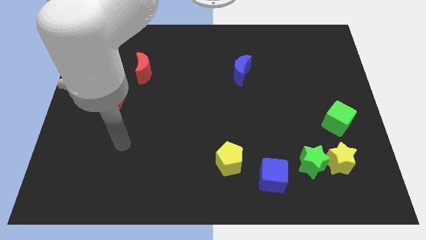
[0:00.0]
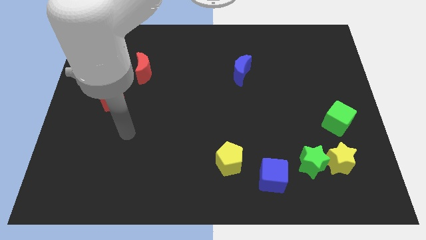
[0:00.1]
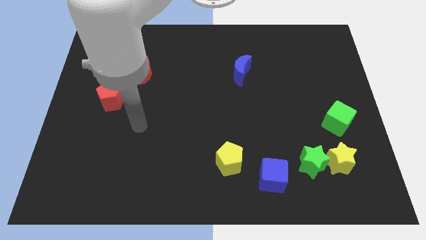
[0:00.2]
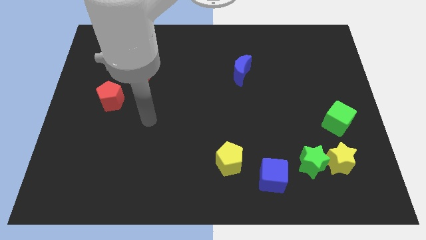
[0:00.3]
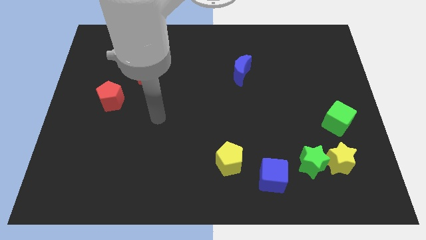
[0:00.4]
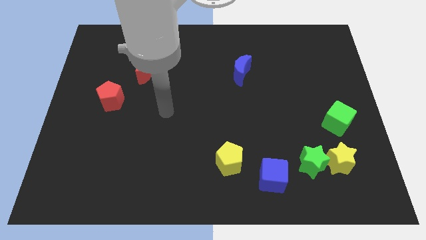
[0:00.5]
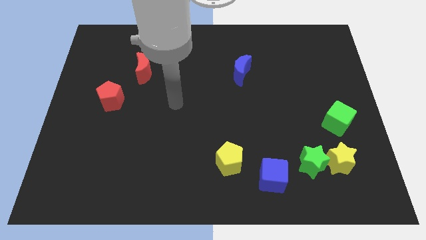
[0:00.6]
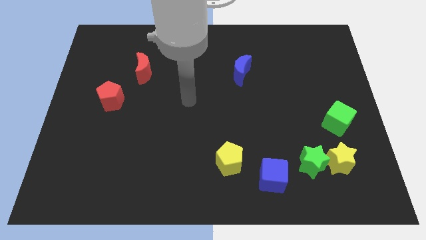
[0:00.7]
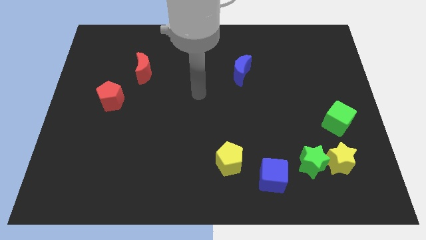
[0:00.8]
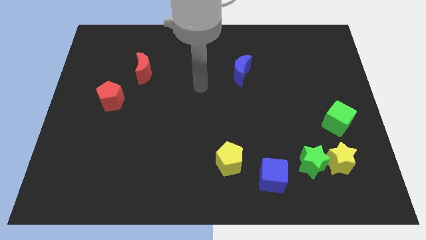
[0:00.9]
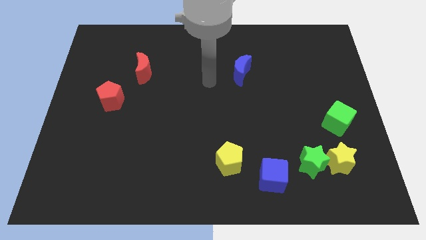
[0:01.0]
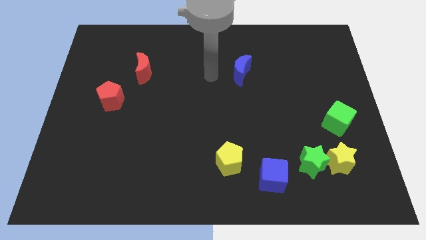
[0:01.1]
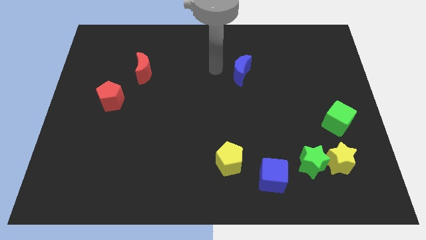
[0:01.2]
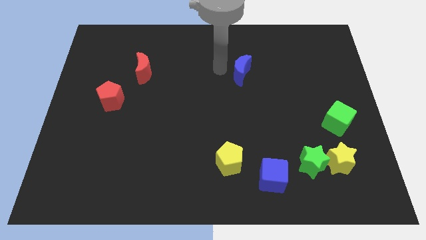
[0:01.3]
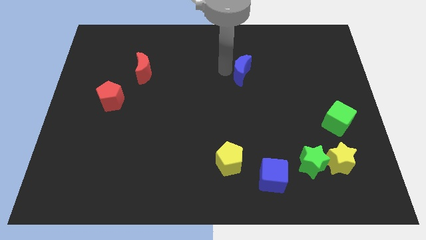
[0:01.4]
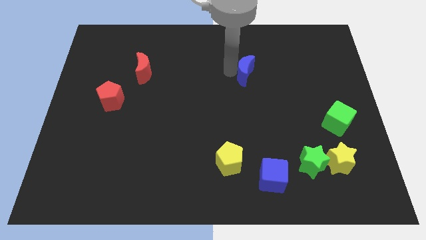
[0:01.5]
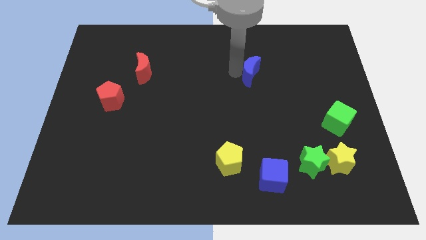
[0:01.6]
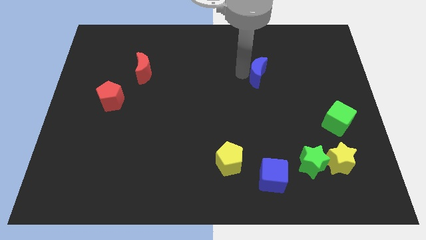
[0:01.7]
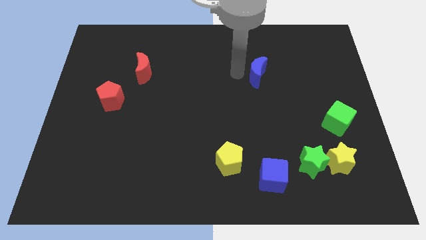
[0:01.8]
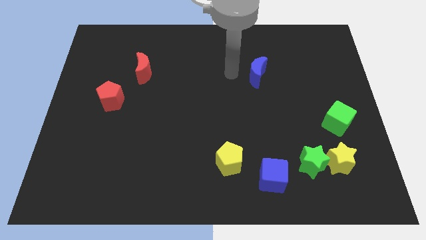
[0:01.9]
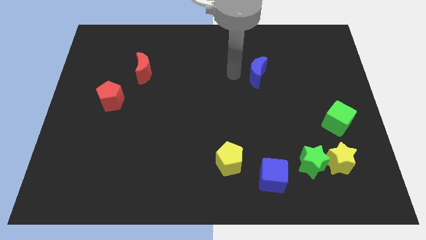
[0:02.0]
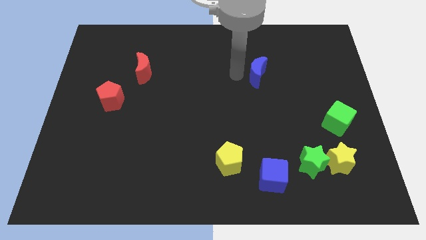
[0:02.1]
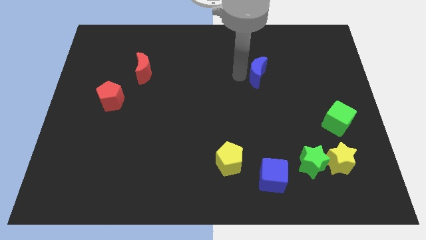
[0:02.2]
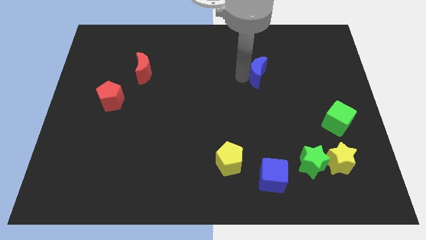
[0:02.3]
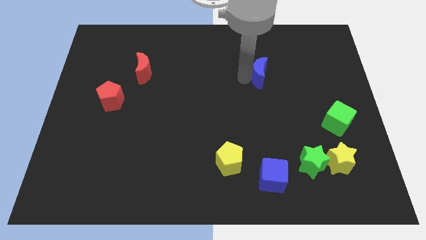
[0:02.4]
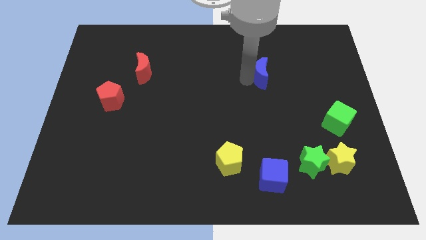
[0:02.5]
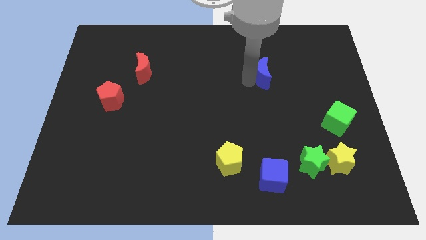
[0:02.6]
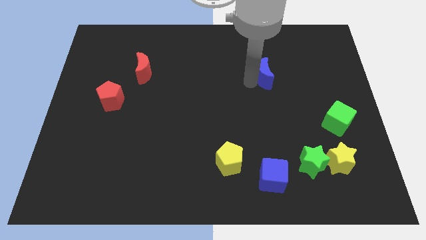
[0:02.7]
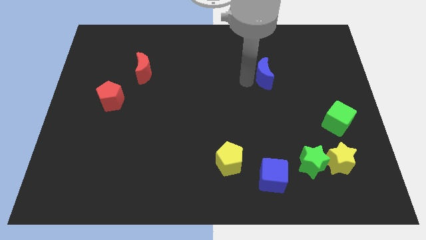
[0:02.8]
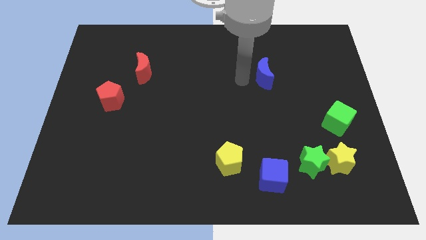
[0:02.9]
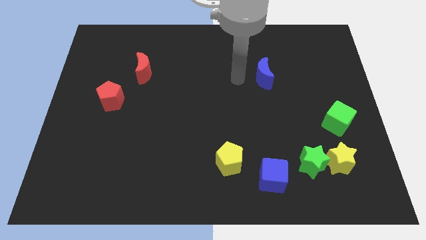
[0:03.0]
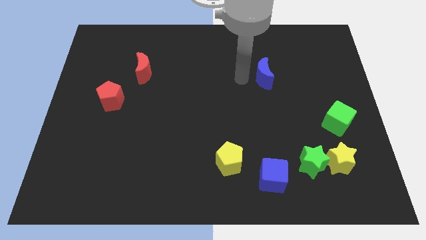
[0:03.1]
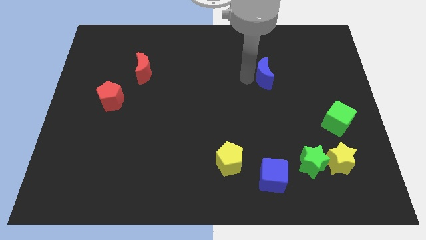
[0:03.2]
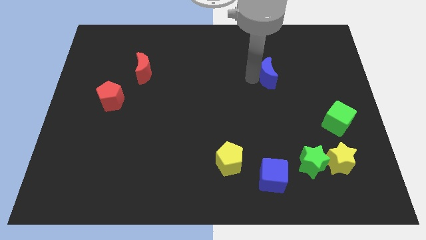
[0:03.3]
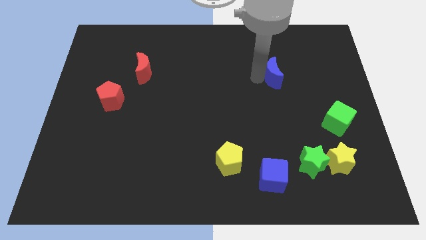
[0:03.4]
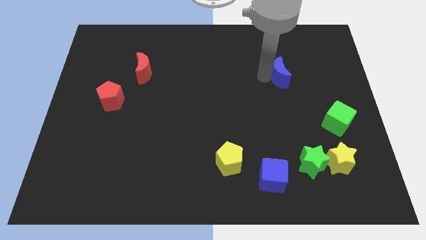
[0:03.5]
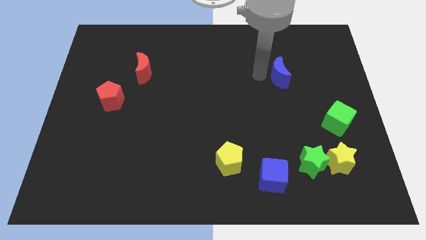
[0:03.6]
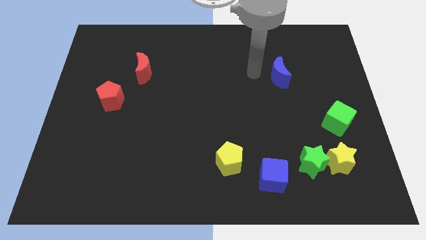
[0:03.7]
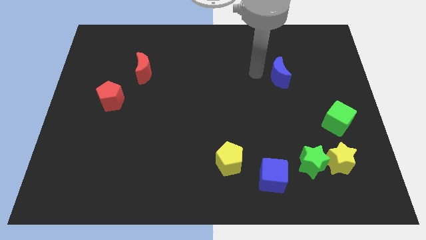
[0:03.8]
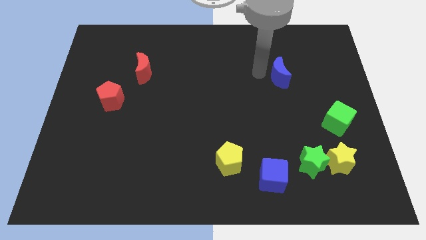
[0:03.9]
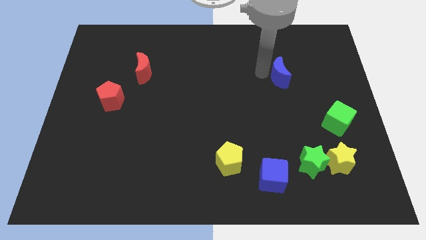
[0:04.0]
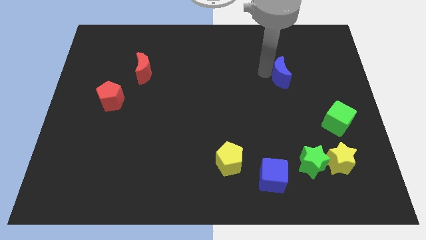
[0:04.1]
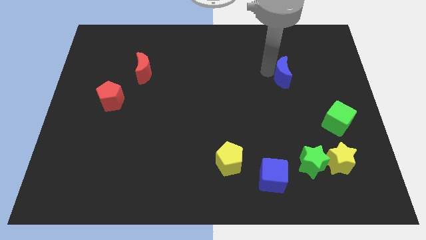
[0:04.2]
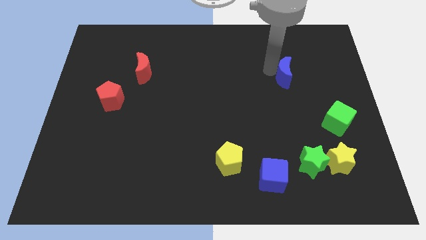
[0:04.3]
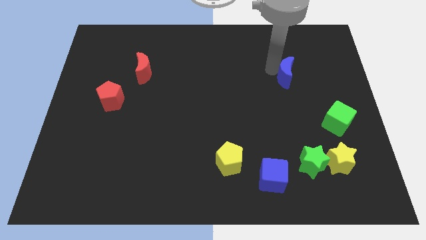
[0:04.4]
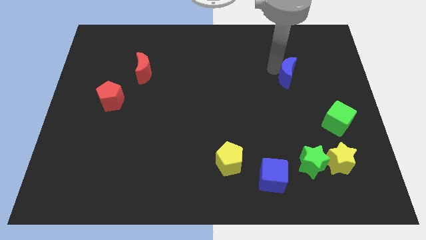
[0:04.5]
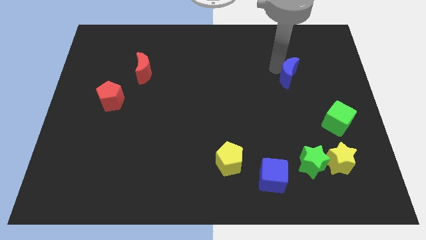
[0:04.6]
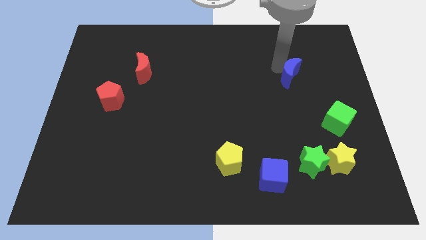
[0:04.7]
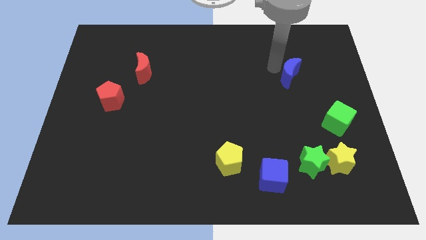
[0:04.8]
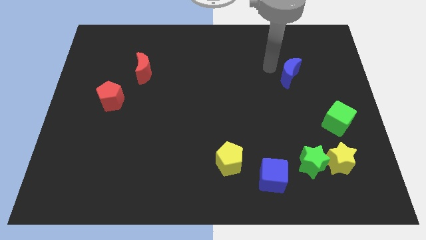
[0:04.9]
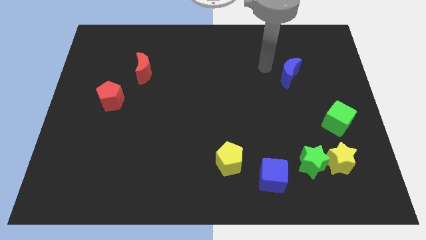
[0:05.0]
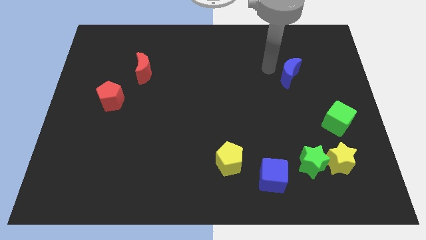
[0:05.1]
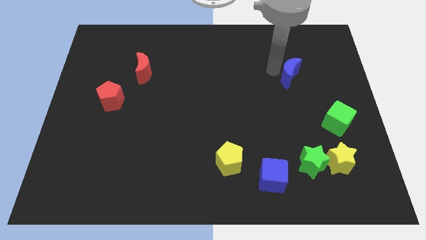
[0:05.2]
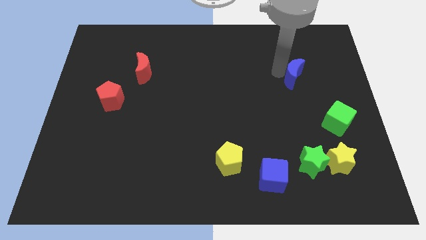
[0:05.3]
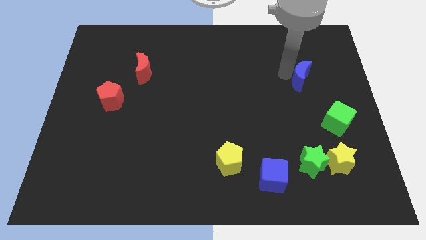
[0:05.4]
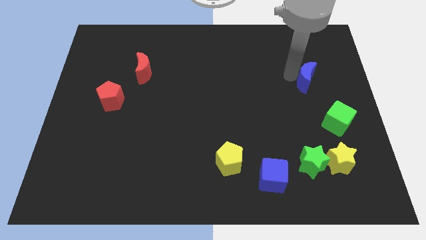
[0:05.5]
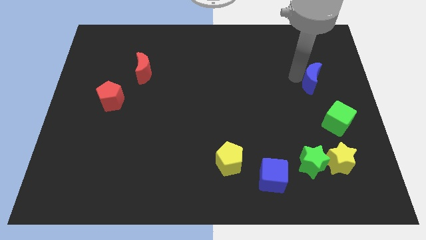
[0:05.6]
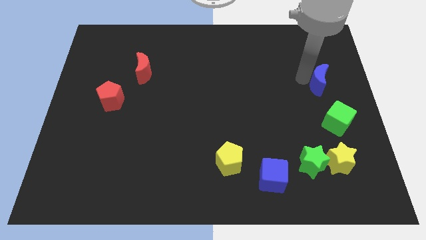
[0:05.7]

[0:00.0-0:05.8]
put the blue moon to the right side

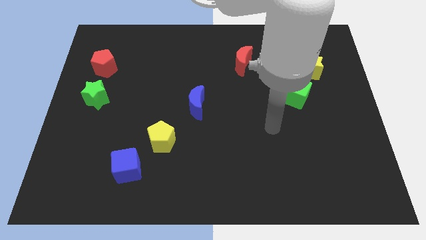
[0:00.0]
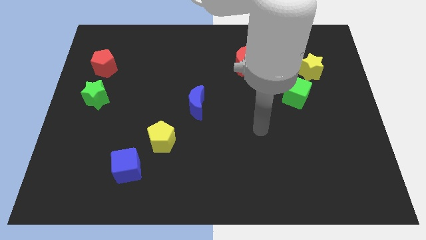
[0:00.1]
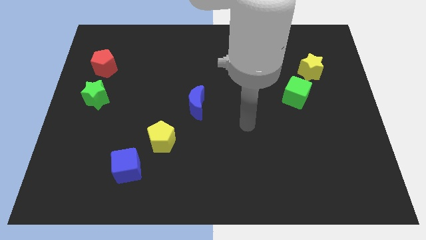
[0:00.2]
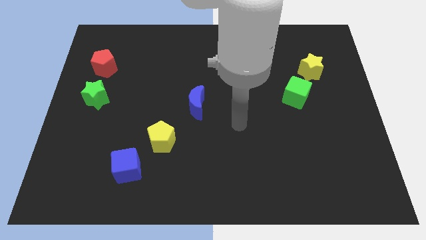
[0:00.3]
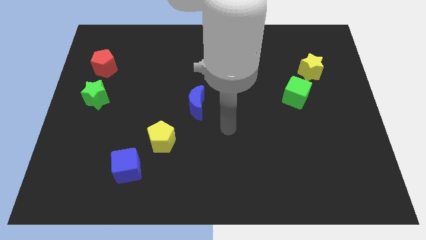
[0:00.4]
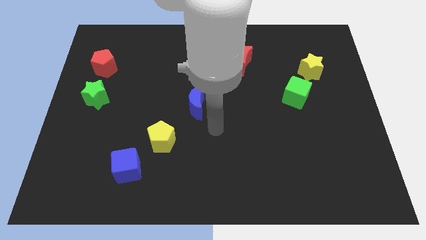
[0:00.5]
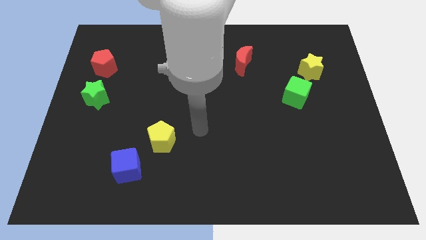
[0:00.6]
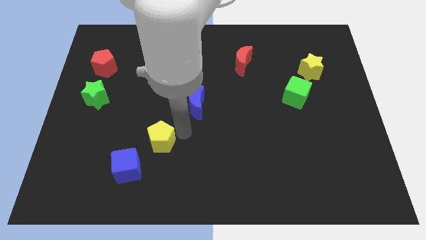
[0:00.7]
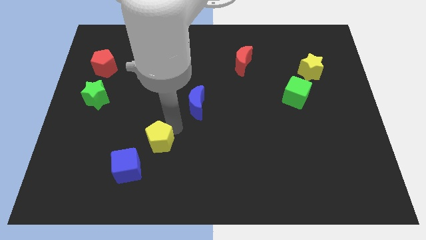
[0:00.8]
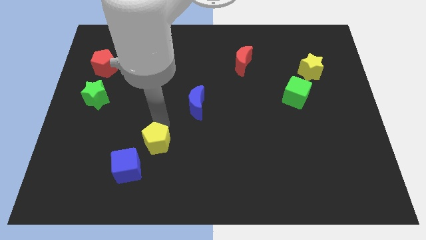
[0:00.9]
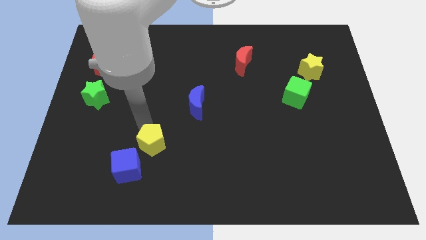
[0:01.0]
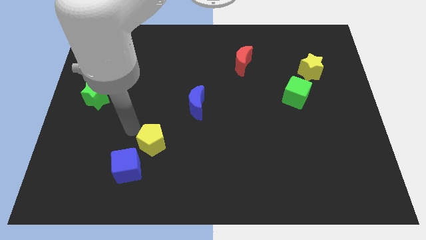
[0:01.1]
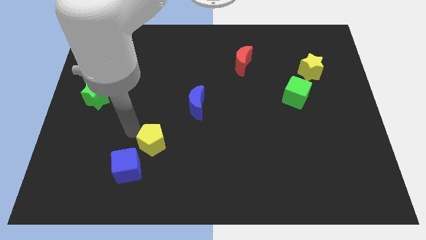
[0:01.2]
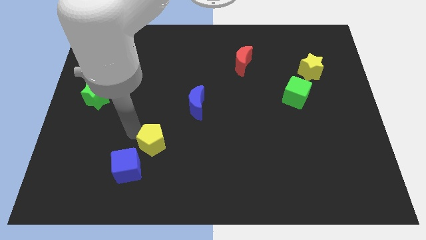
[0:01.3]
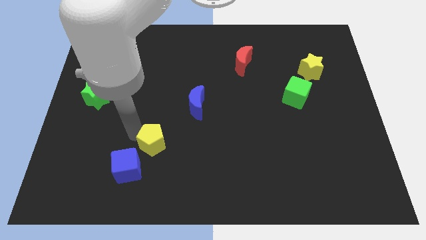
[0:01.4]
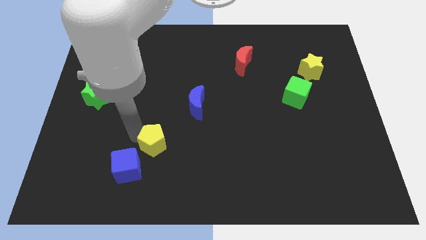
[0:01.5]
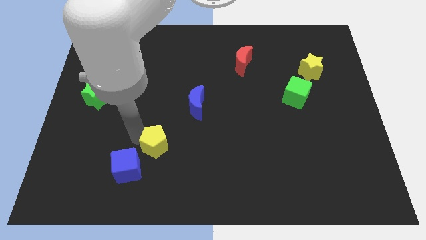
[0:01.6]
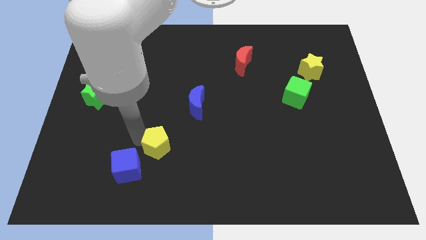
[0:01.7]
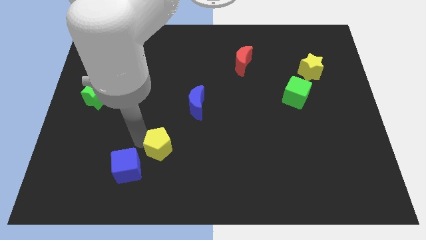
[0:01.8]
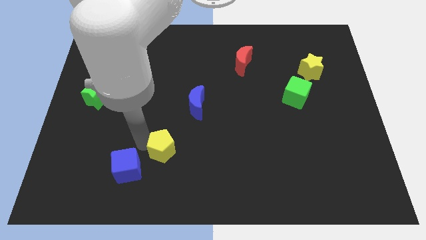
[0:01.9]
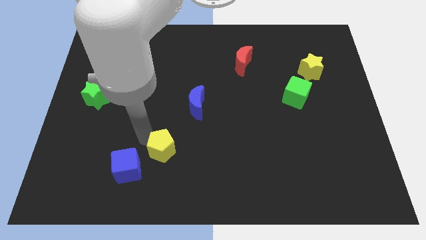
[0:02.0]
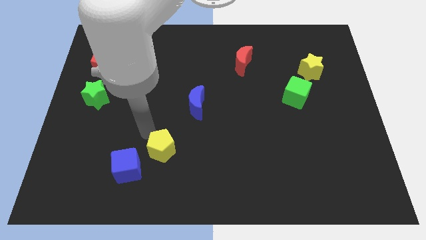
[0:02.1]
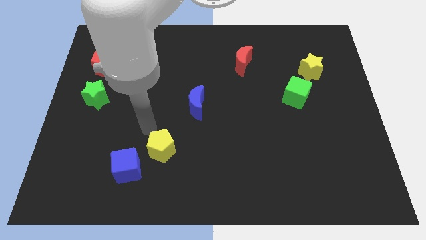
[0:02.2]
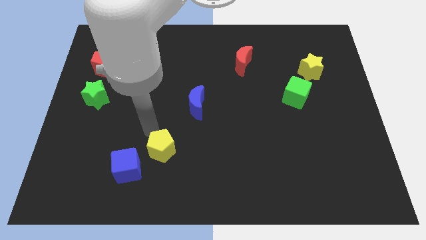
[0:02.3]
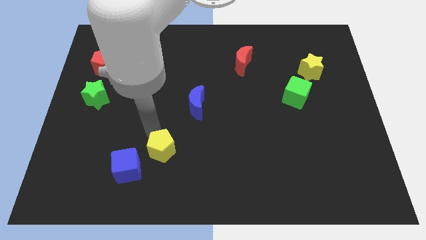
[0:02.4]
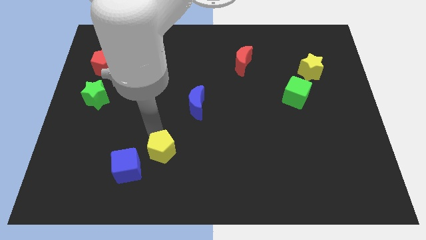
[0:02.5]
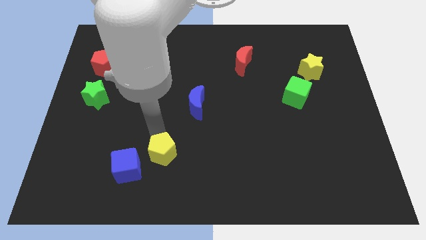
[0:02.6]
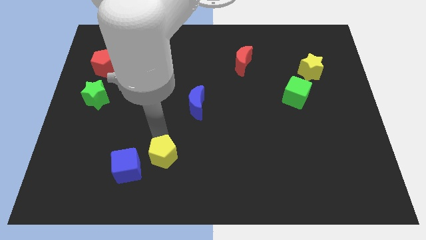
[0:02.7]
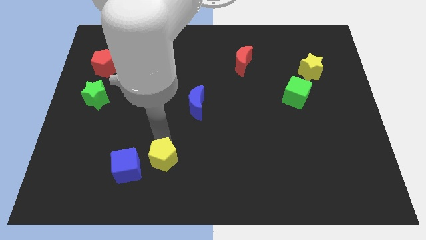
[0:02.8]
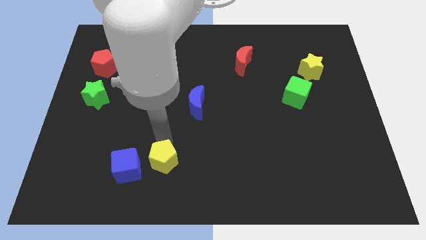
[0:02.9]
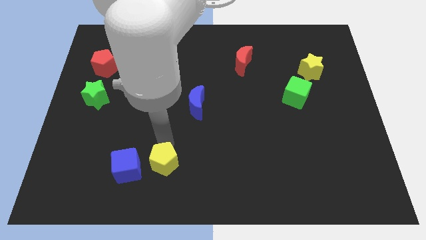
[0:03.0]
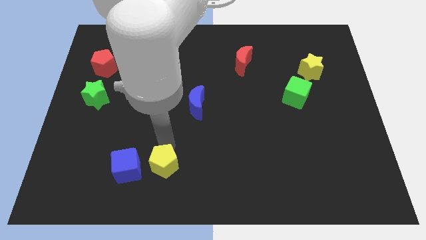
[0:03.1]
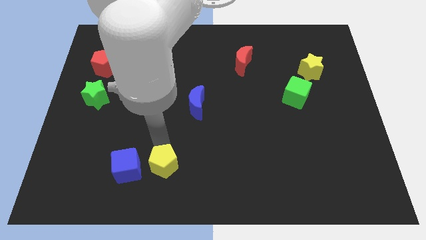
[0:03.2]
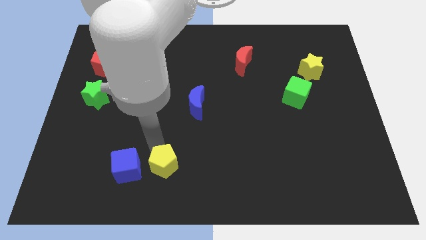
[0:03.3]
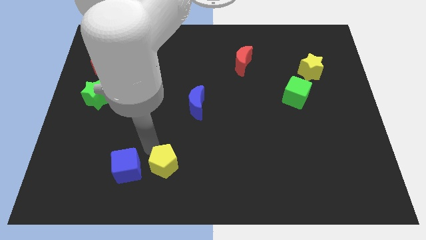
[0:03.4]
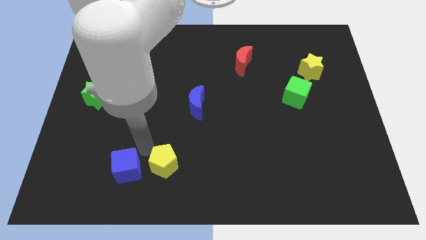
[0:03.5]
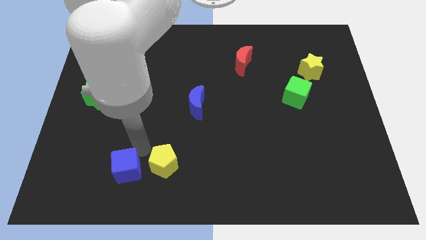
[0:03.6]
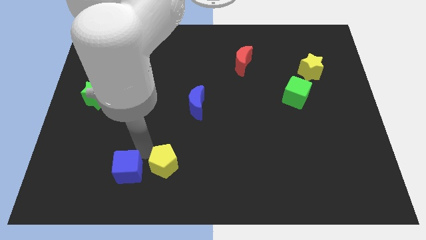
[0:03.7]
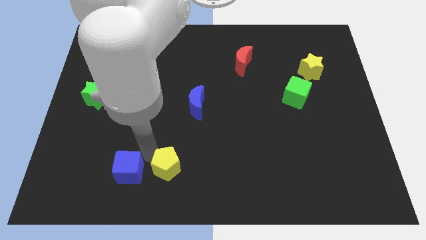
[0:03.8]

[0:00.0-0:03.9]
move the yellow pentagon to the bottom side
